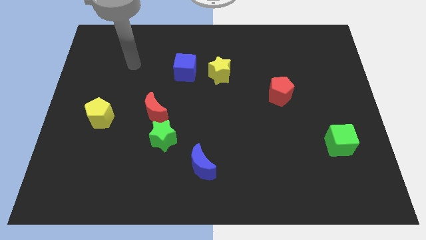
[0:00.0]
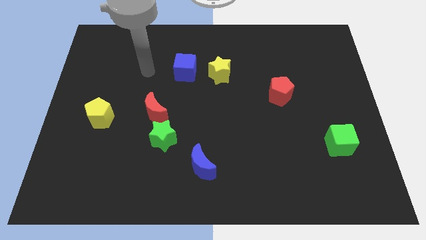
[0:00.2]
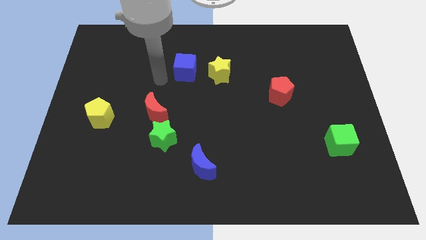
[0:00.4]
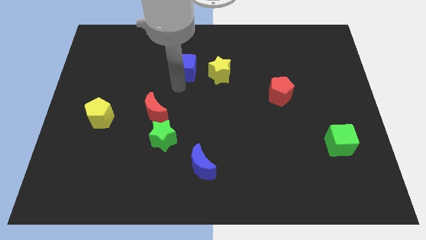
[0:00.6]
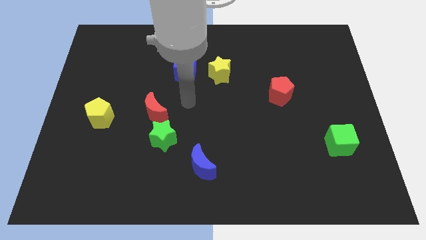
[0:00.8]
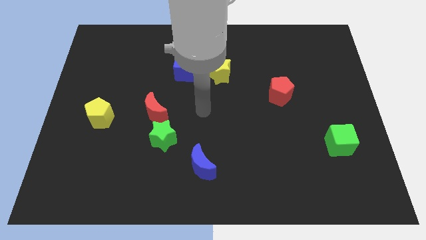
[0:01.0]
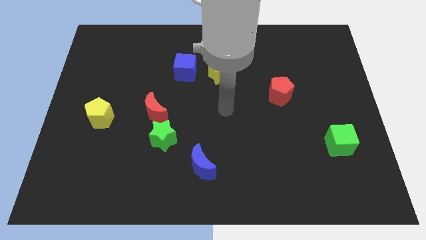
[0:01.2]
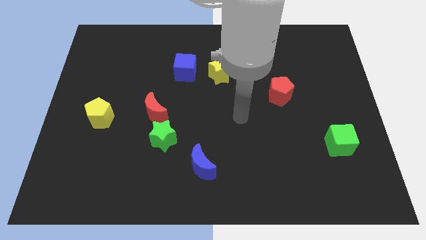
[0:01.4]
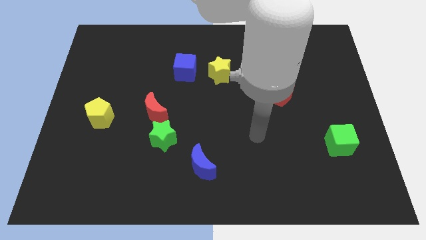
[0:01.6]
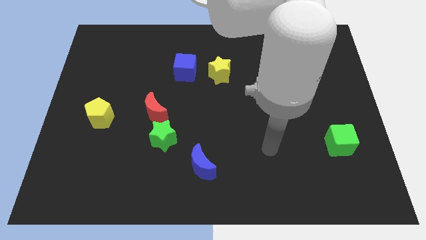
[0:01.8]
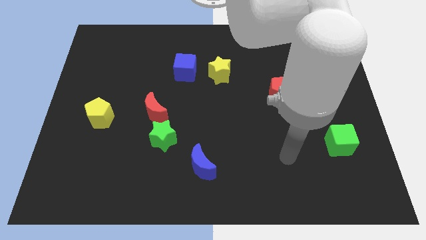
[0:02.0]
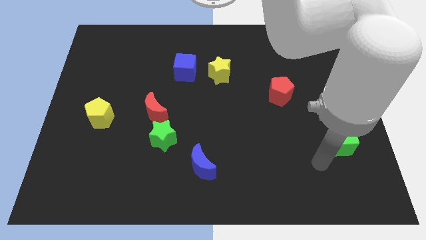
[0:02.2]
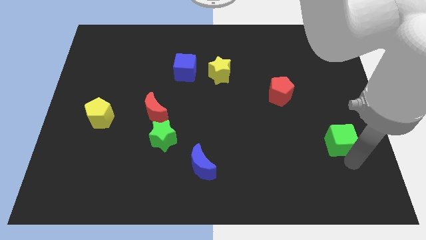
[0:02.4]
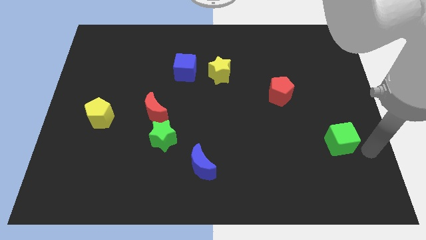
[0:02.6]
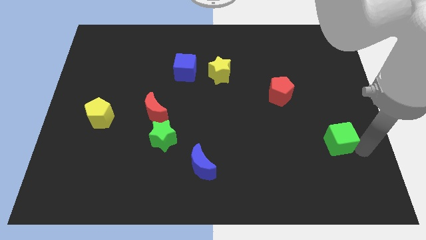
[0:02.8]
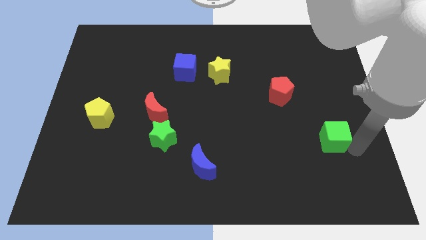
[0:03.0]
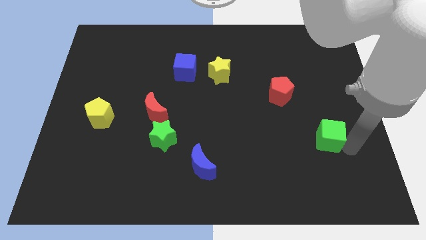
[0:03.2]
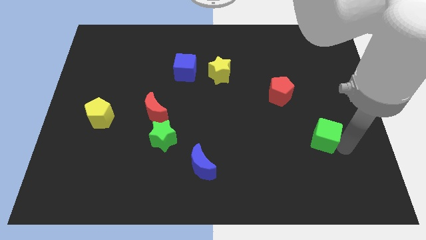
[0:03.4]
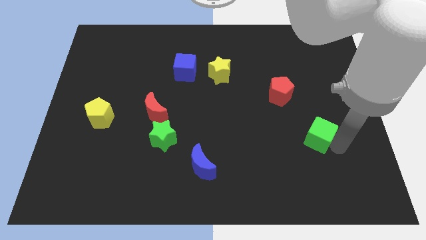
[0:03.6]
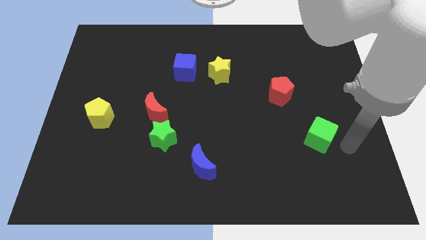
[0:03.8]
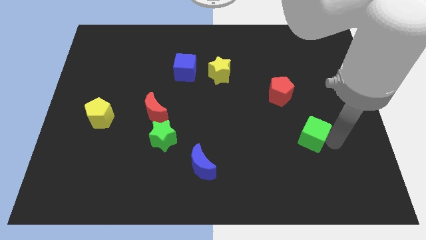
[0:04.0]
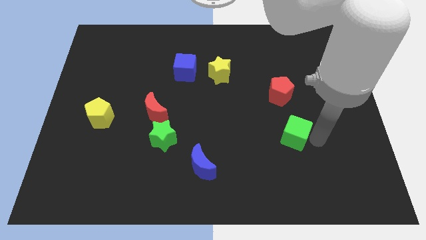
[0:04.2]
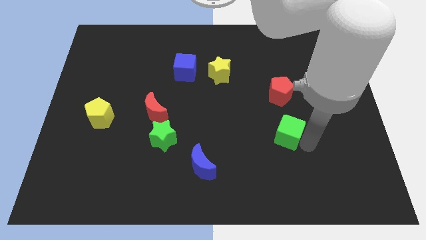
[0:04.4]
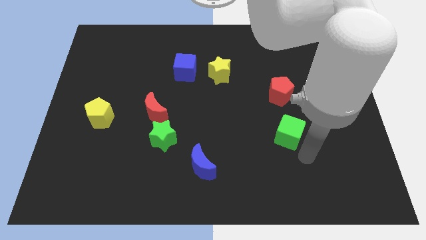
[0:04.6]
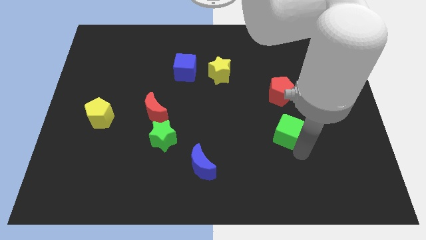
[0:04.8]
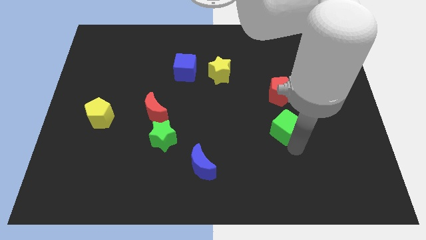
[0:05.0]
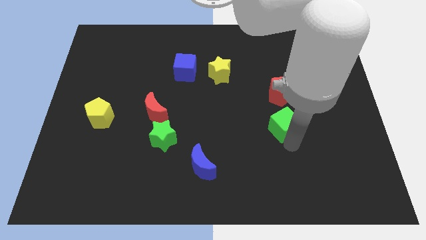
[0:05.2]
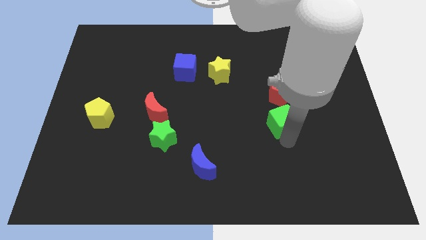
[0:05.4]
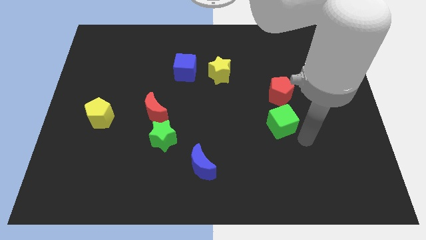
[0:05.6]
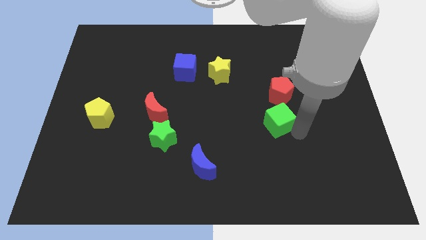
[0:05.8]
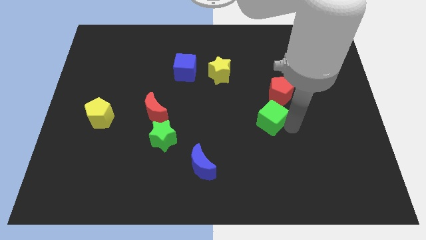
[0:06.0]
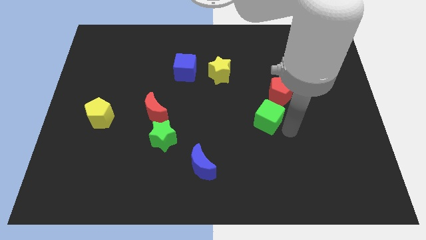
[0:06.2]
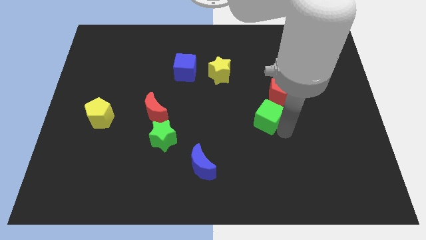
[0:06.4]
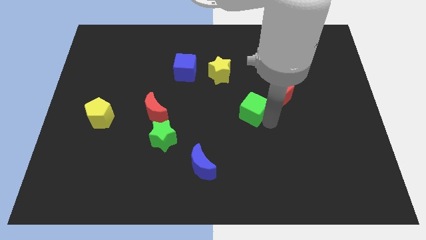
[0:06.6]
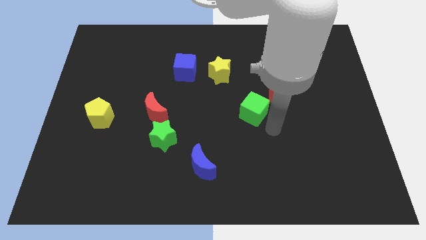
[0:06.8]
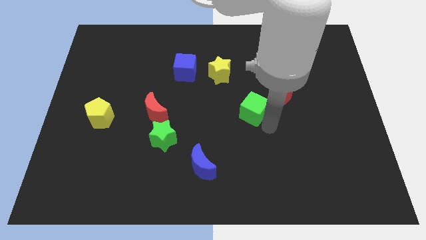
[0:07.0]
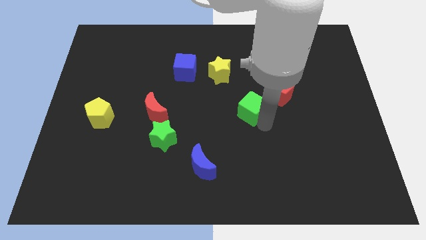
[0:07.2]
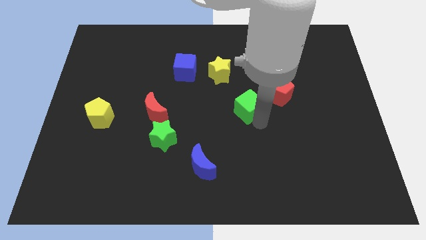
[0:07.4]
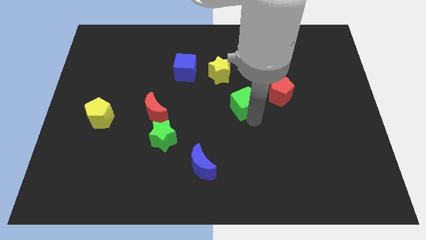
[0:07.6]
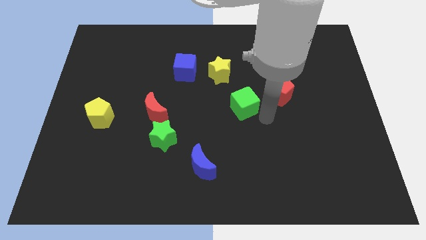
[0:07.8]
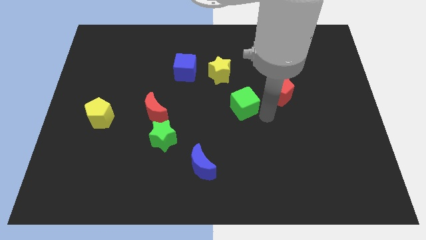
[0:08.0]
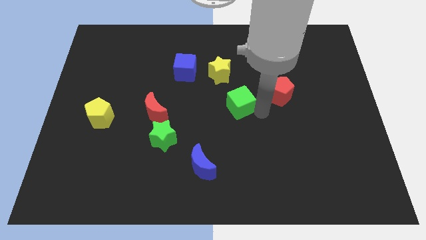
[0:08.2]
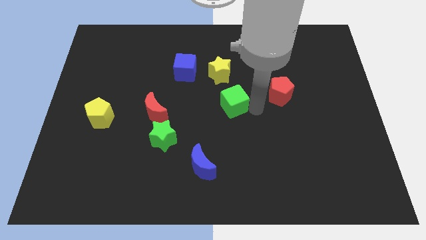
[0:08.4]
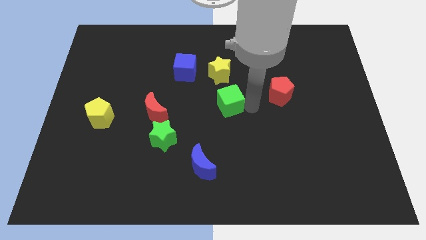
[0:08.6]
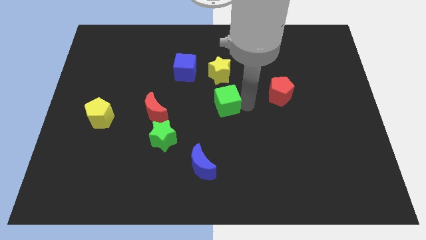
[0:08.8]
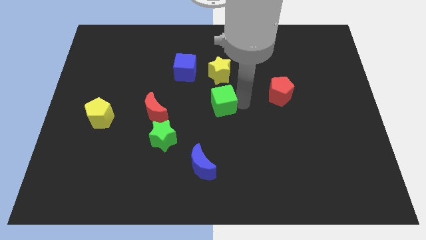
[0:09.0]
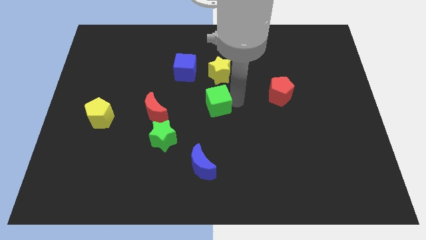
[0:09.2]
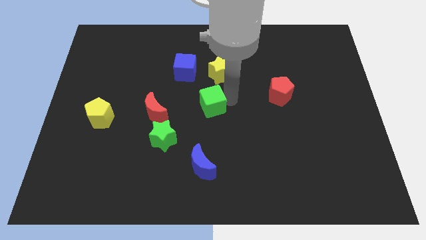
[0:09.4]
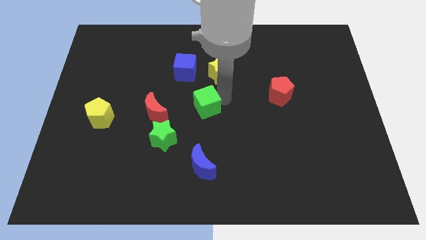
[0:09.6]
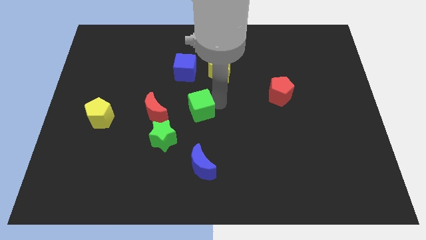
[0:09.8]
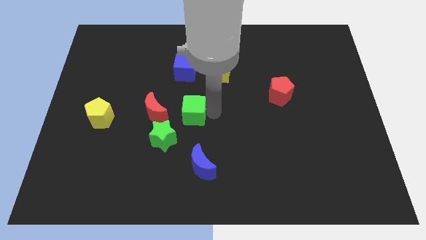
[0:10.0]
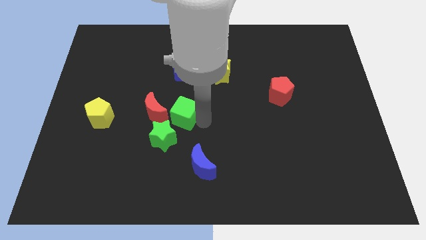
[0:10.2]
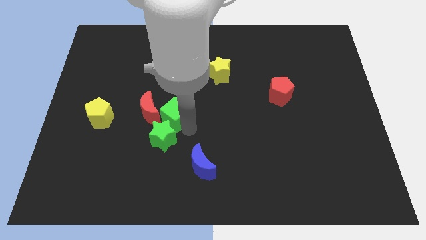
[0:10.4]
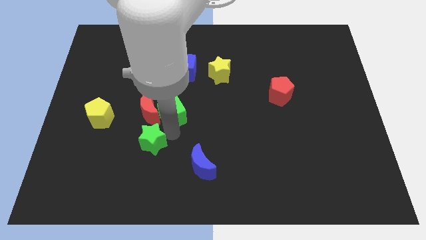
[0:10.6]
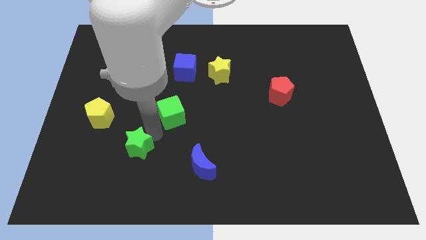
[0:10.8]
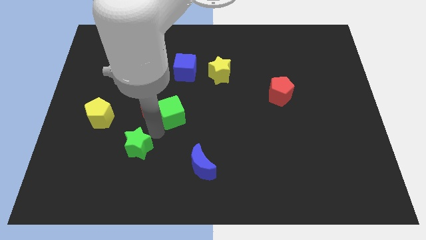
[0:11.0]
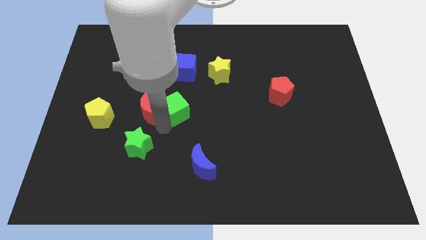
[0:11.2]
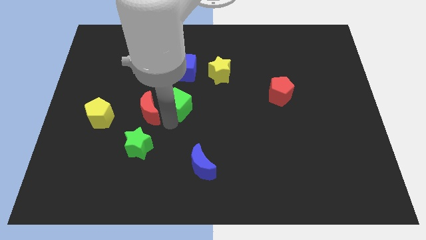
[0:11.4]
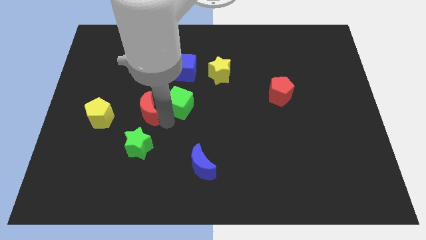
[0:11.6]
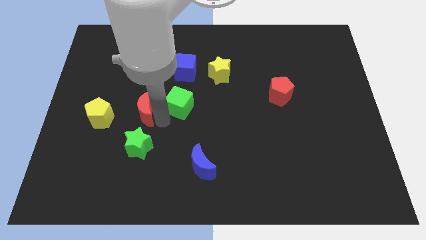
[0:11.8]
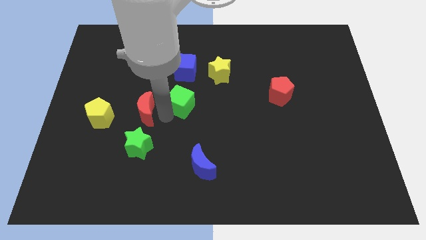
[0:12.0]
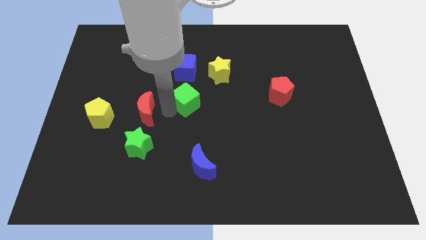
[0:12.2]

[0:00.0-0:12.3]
move the green cube diagonally down and to the left of the yellow star

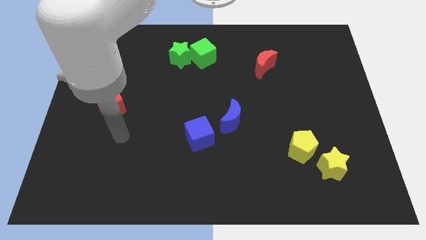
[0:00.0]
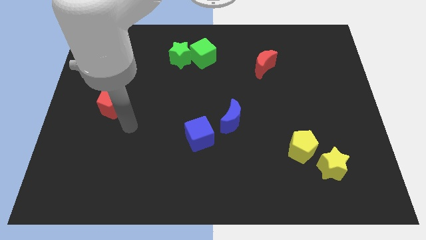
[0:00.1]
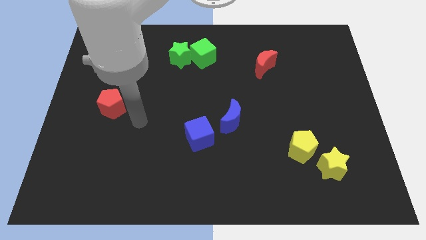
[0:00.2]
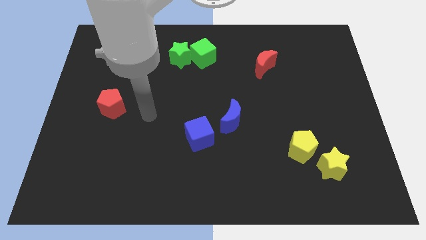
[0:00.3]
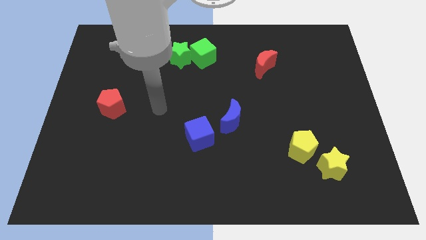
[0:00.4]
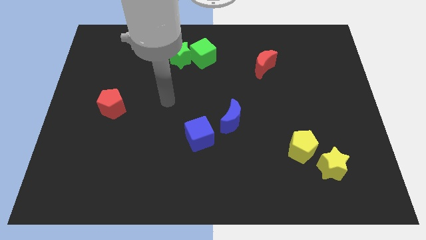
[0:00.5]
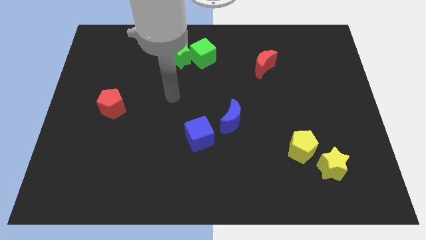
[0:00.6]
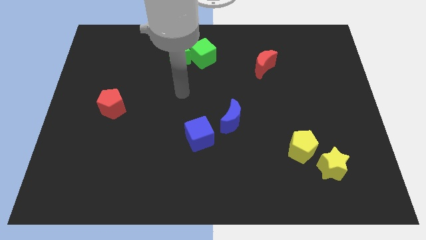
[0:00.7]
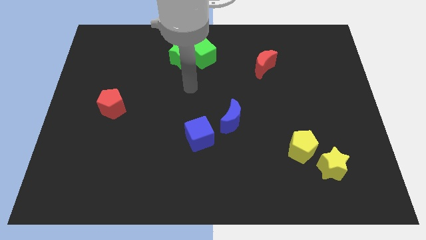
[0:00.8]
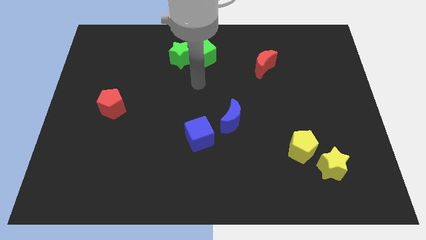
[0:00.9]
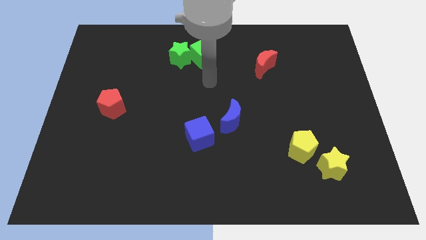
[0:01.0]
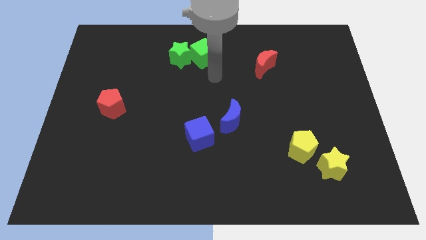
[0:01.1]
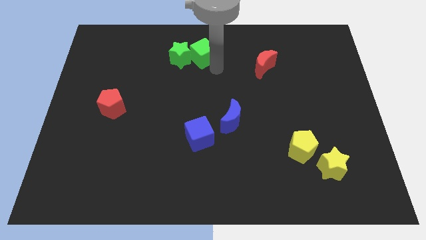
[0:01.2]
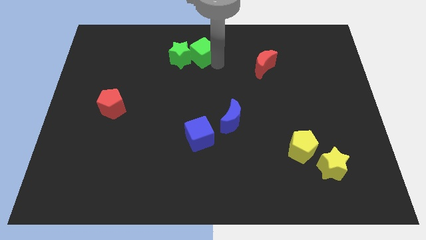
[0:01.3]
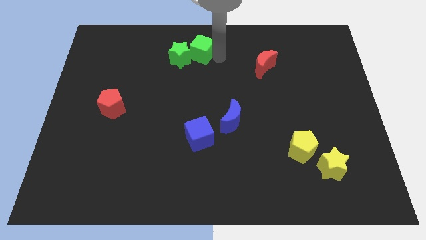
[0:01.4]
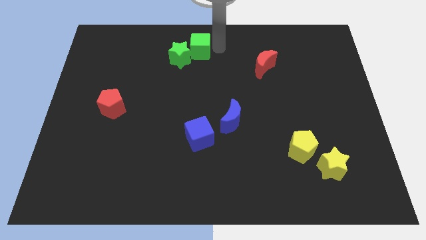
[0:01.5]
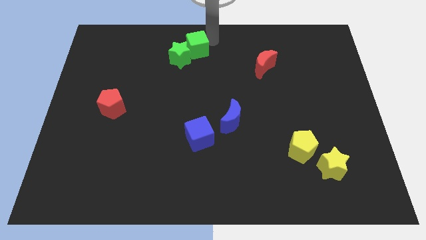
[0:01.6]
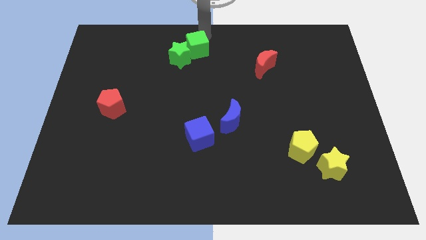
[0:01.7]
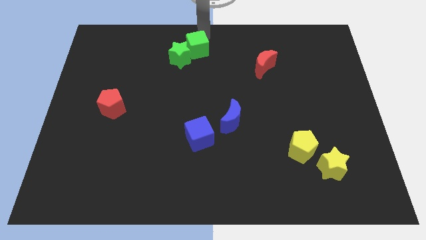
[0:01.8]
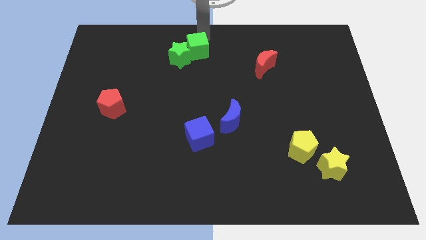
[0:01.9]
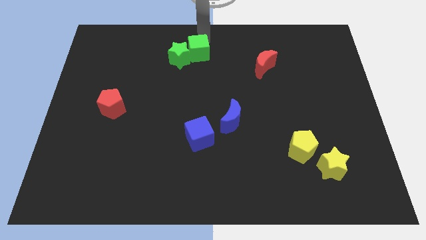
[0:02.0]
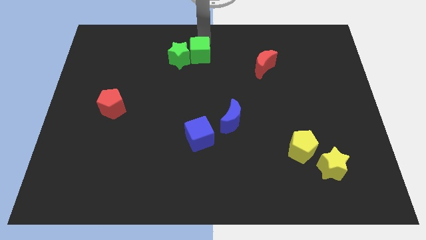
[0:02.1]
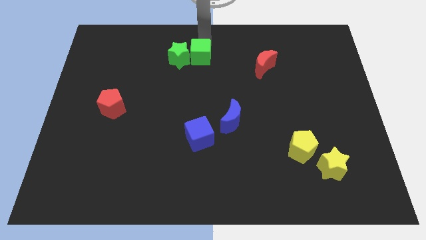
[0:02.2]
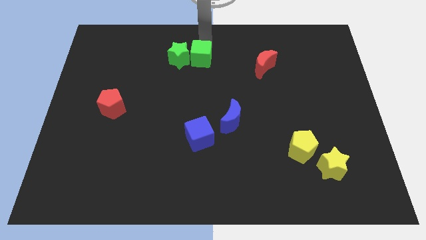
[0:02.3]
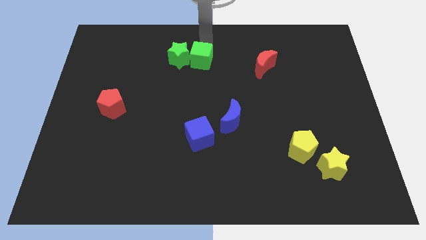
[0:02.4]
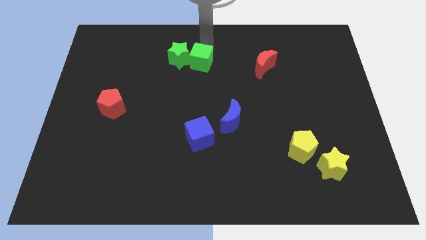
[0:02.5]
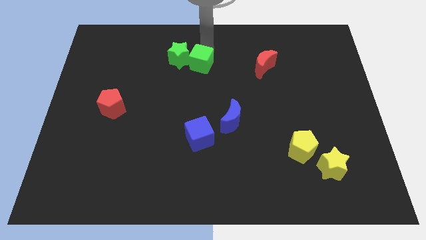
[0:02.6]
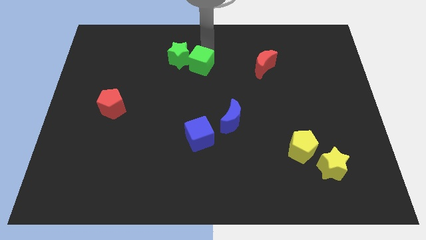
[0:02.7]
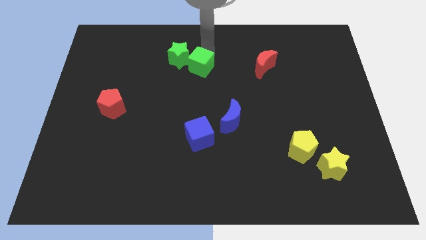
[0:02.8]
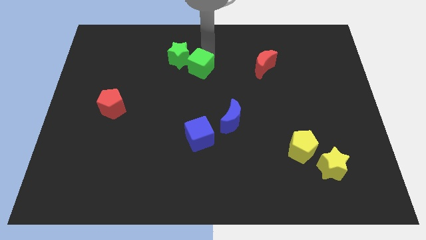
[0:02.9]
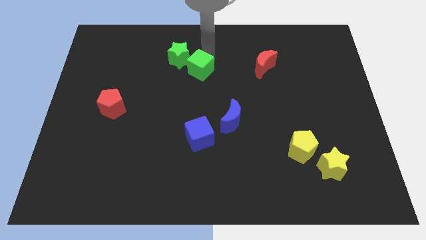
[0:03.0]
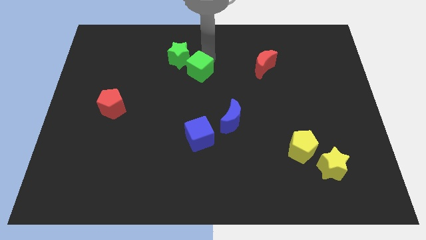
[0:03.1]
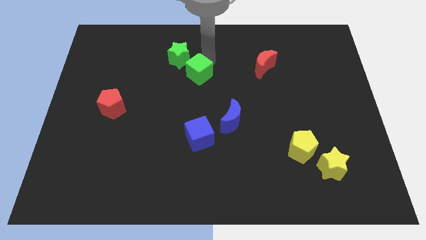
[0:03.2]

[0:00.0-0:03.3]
slide the green cube below the green star
